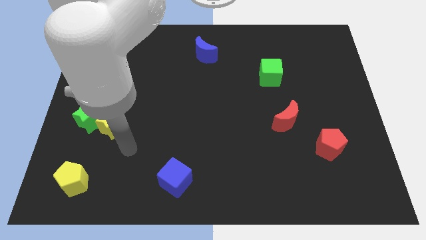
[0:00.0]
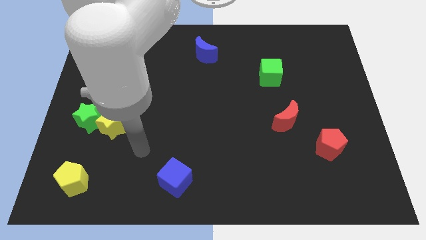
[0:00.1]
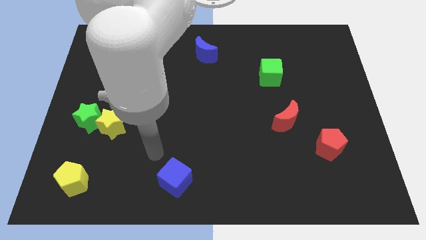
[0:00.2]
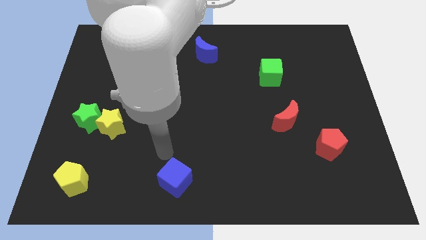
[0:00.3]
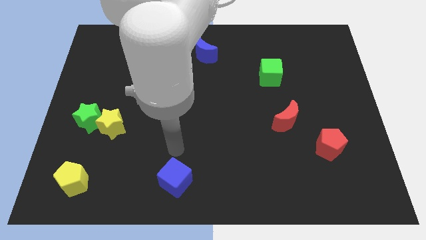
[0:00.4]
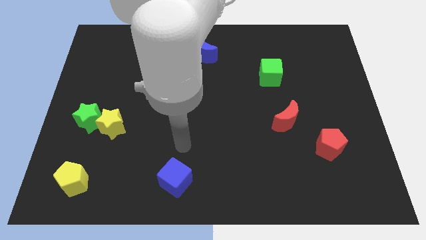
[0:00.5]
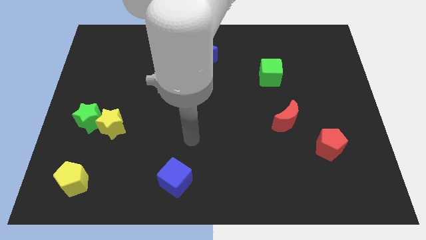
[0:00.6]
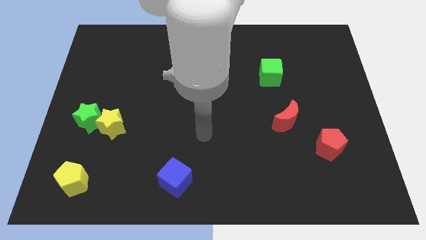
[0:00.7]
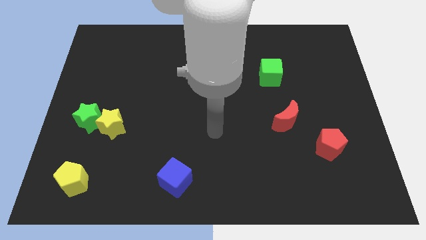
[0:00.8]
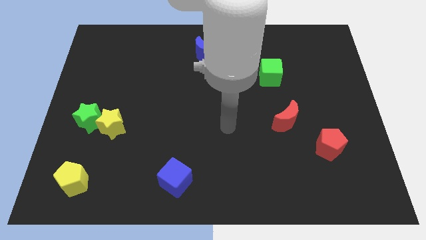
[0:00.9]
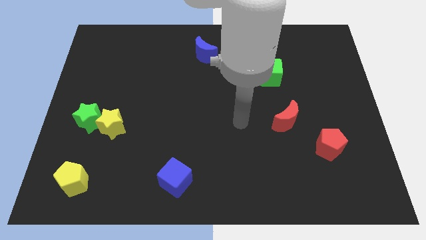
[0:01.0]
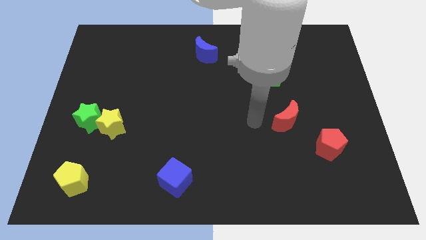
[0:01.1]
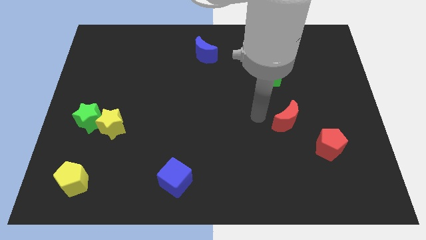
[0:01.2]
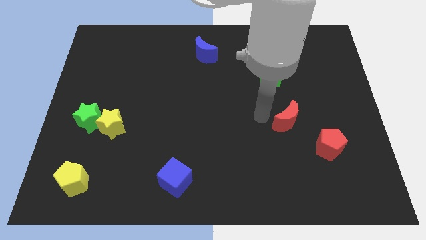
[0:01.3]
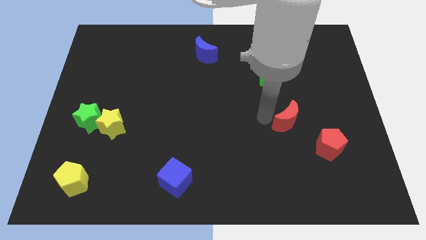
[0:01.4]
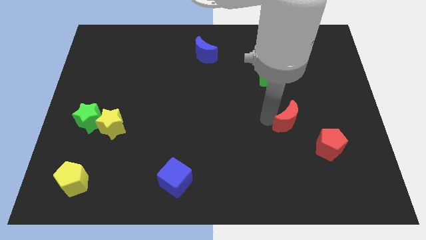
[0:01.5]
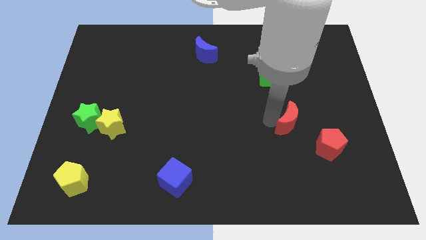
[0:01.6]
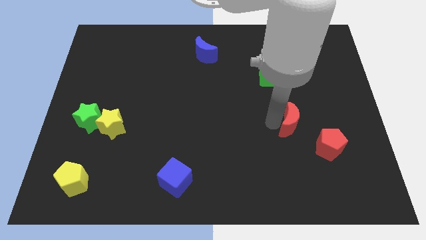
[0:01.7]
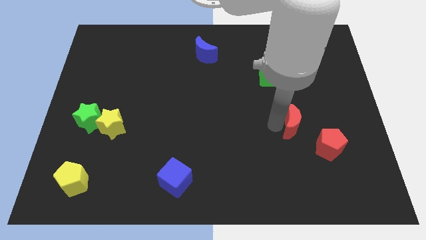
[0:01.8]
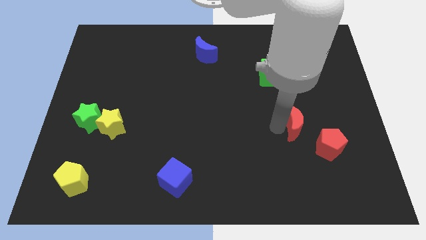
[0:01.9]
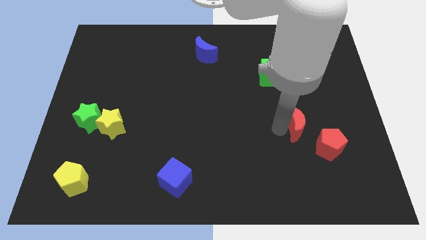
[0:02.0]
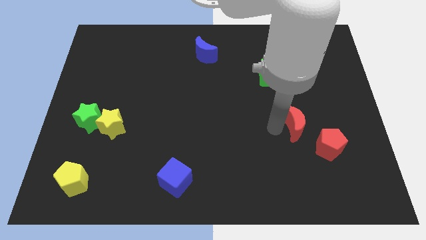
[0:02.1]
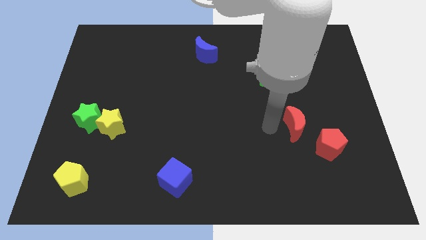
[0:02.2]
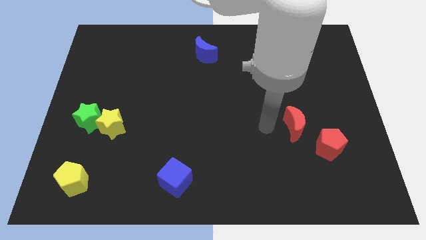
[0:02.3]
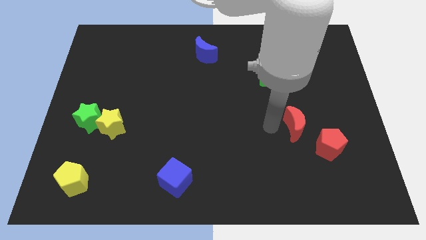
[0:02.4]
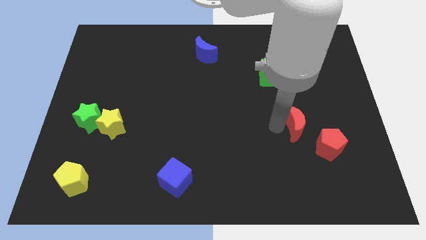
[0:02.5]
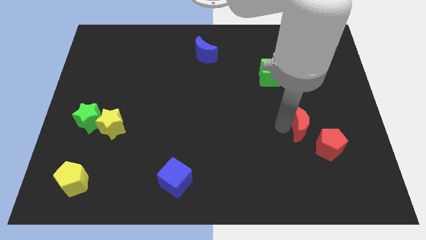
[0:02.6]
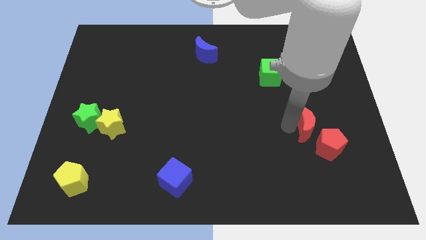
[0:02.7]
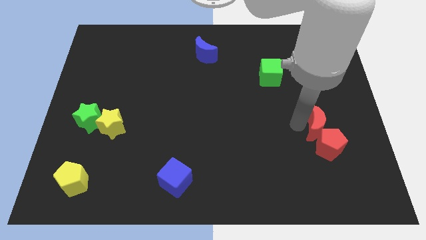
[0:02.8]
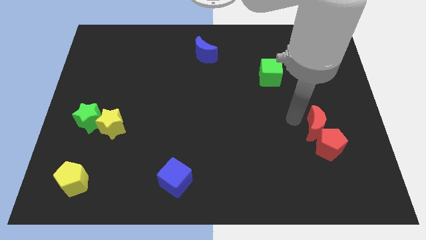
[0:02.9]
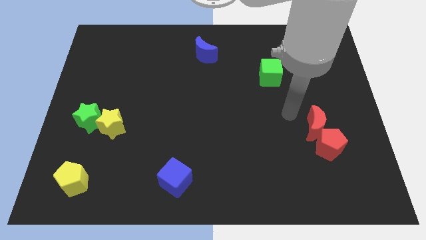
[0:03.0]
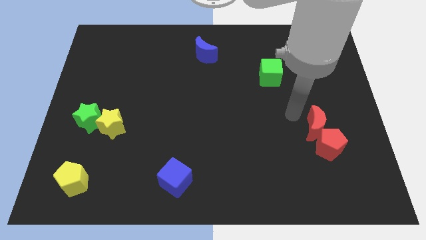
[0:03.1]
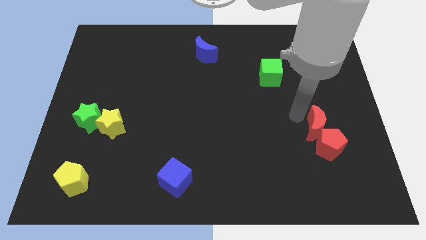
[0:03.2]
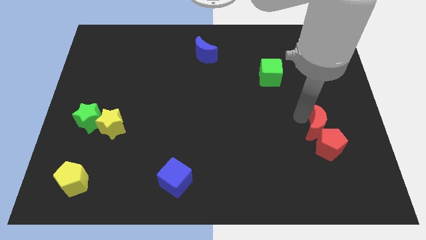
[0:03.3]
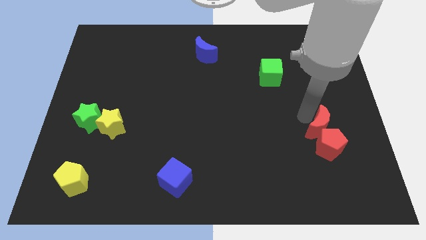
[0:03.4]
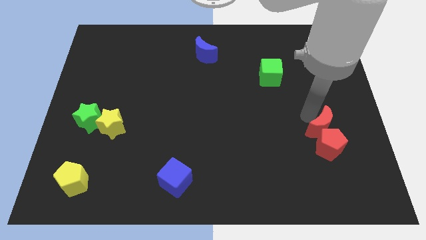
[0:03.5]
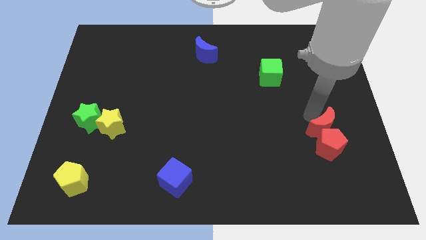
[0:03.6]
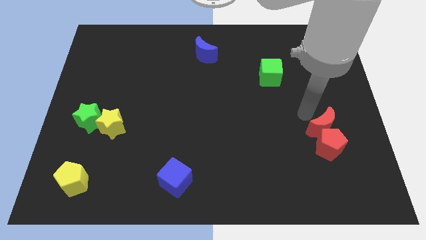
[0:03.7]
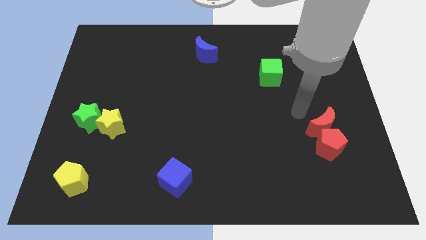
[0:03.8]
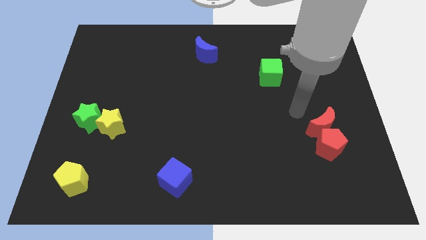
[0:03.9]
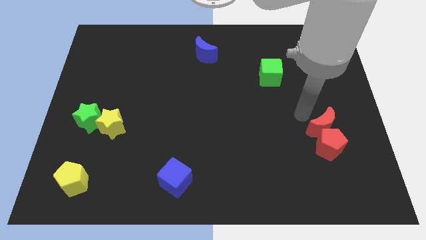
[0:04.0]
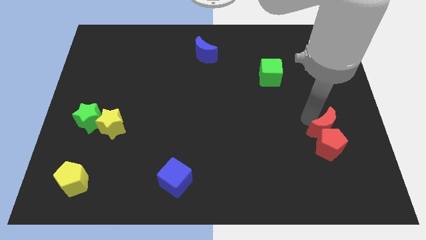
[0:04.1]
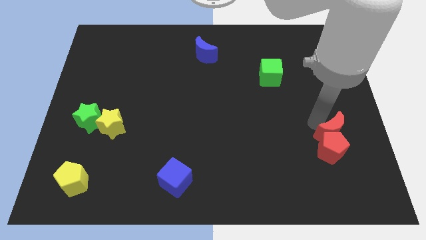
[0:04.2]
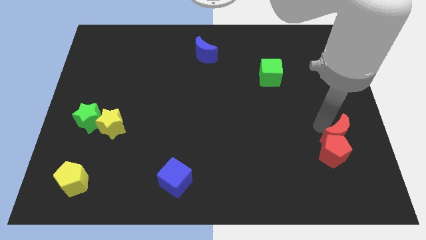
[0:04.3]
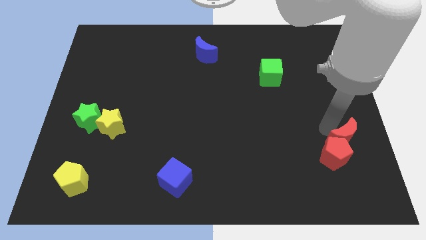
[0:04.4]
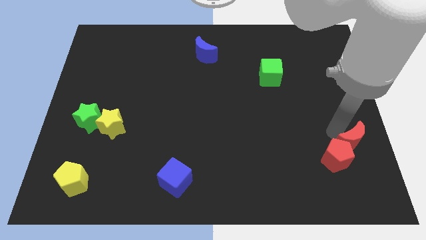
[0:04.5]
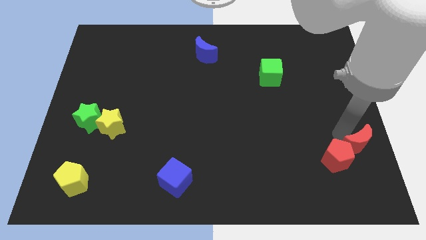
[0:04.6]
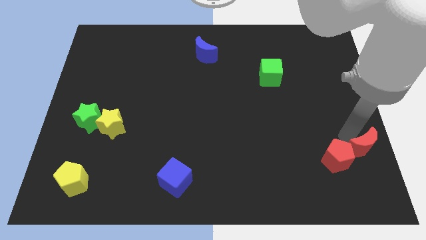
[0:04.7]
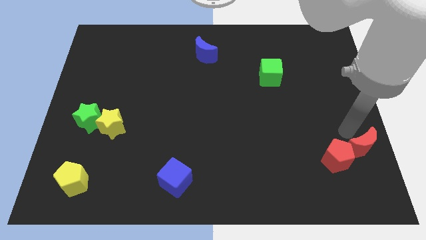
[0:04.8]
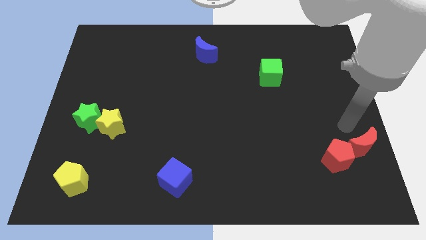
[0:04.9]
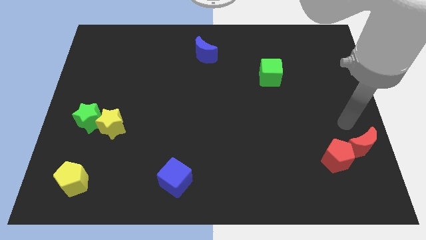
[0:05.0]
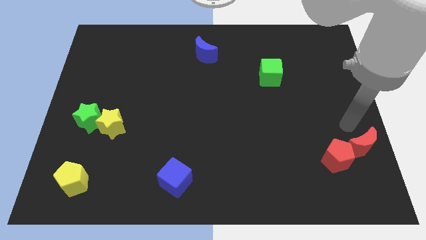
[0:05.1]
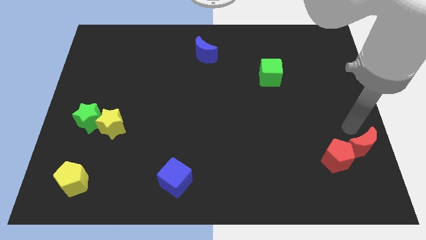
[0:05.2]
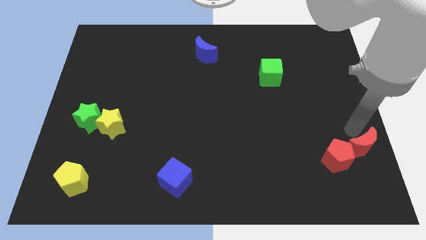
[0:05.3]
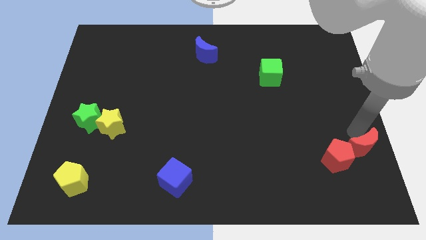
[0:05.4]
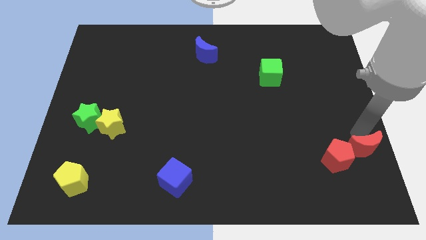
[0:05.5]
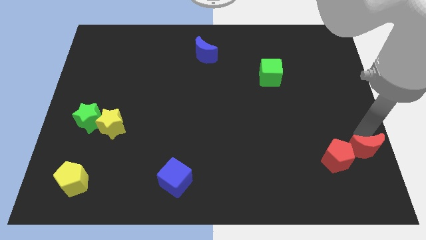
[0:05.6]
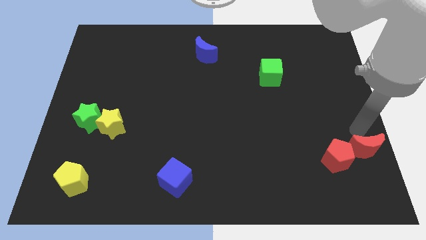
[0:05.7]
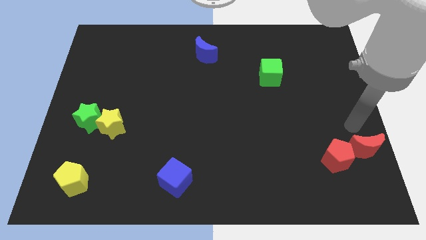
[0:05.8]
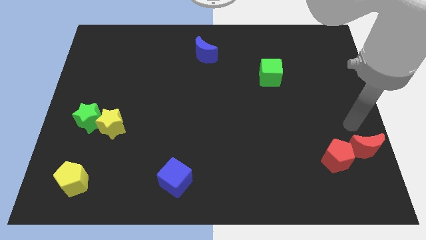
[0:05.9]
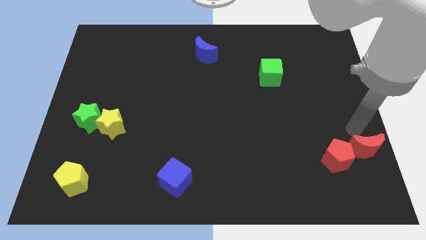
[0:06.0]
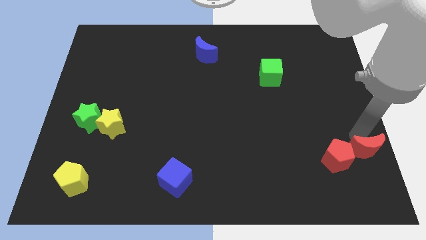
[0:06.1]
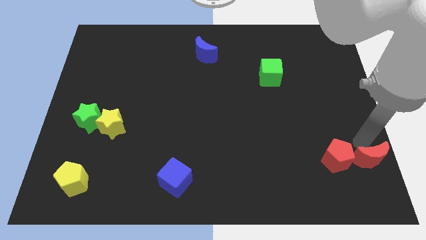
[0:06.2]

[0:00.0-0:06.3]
move the red moon to the bottom right corner

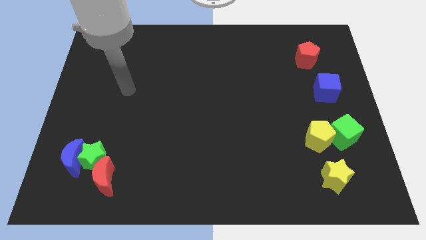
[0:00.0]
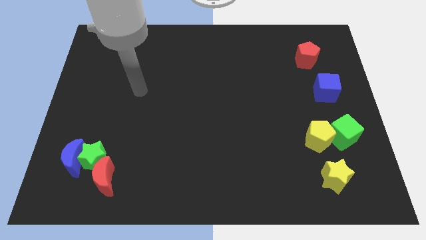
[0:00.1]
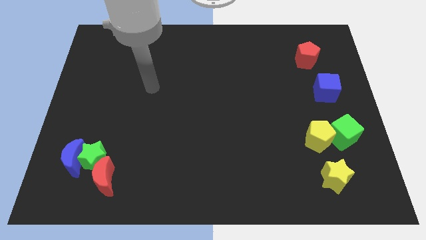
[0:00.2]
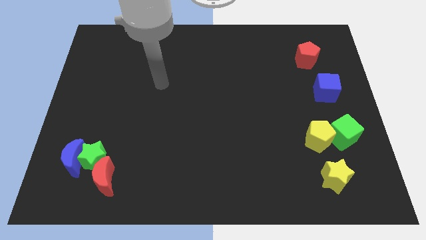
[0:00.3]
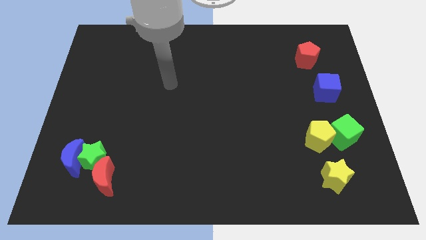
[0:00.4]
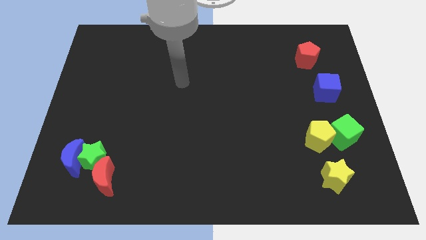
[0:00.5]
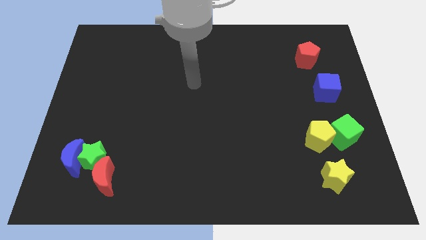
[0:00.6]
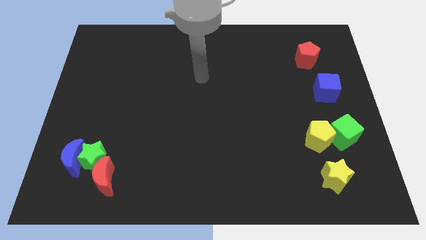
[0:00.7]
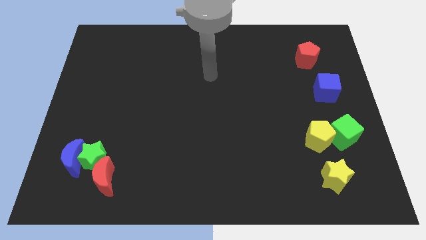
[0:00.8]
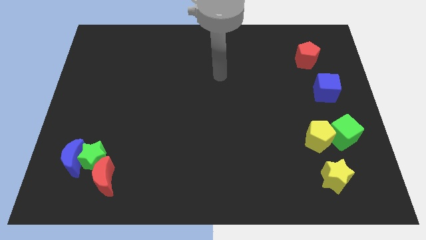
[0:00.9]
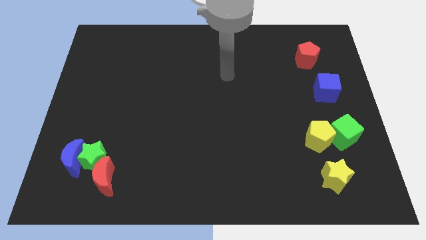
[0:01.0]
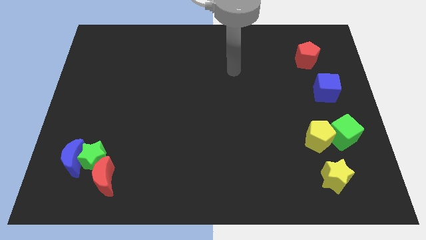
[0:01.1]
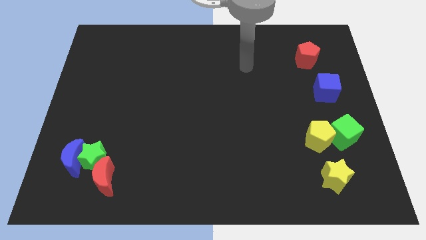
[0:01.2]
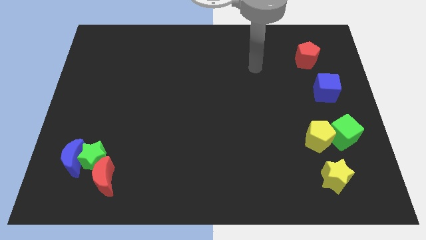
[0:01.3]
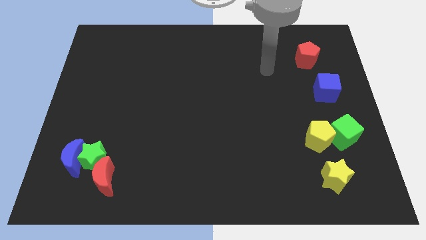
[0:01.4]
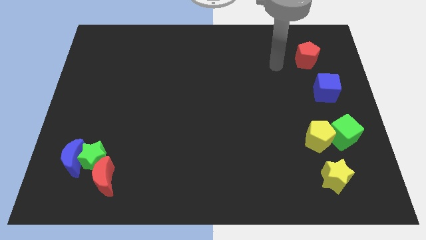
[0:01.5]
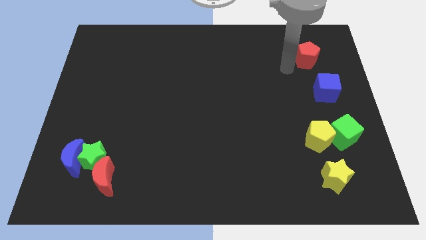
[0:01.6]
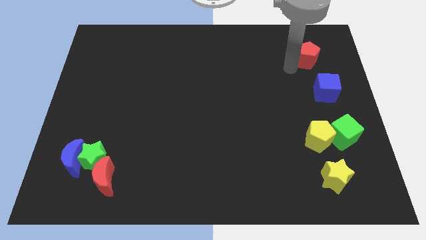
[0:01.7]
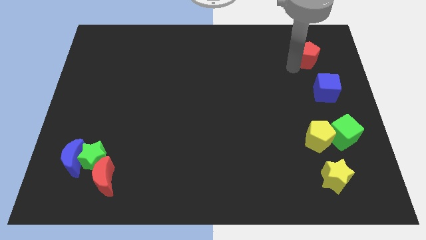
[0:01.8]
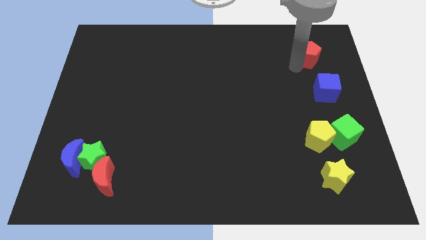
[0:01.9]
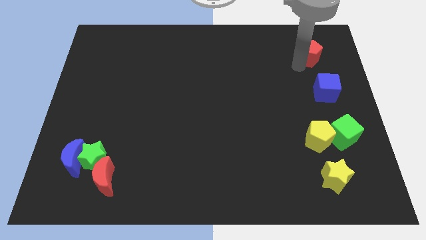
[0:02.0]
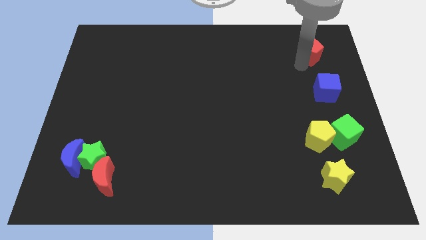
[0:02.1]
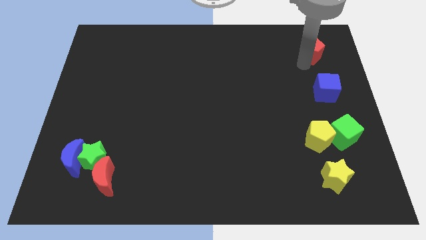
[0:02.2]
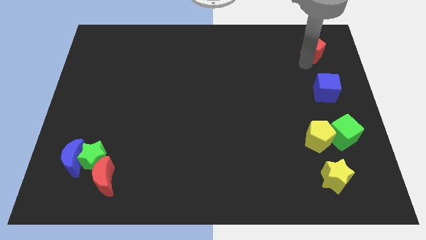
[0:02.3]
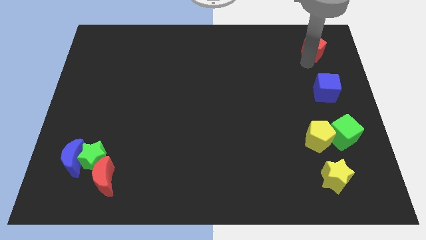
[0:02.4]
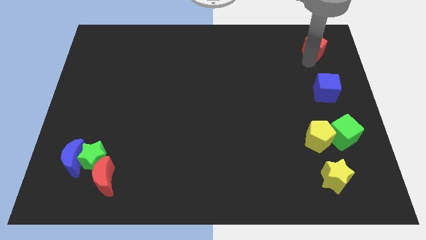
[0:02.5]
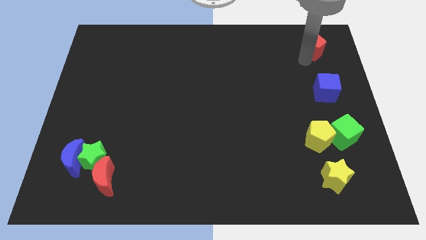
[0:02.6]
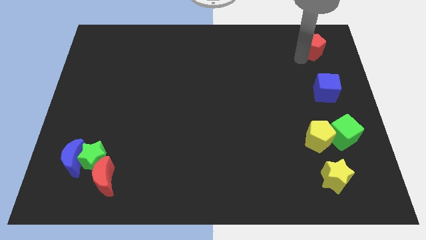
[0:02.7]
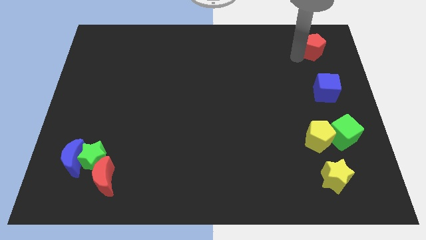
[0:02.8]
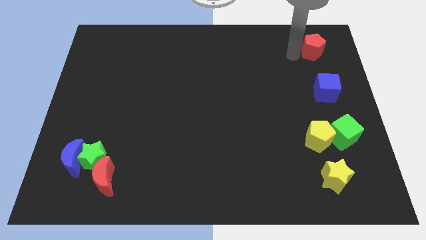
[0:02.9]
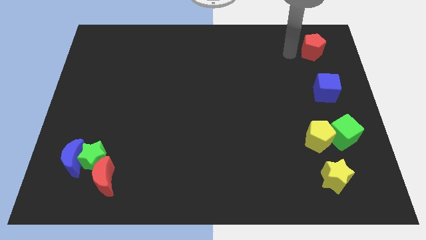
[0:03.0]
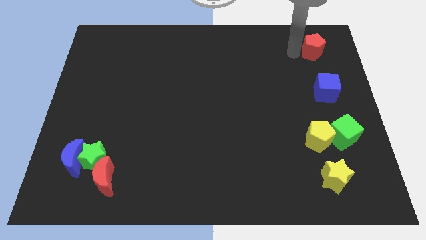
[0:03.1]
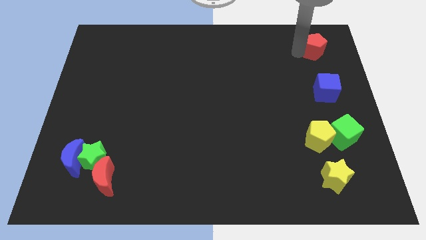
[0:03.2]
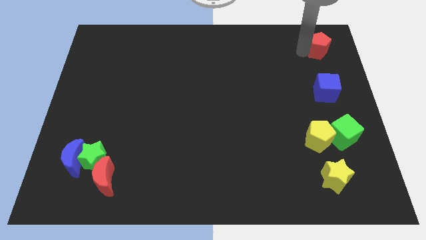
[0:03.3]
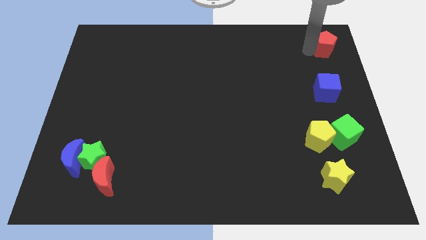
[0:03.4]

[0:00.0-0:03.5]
put the red pentagon to the top right
